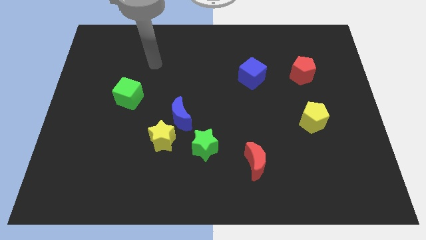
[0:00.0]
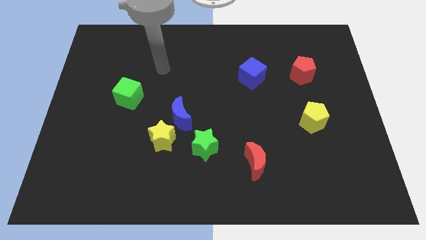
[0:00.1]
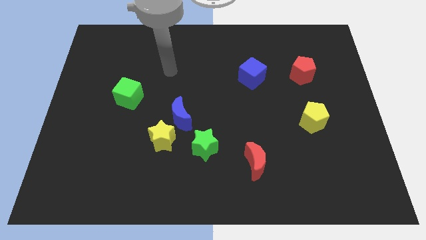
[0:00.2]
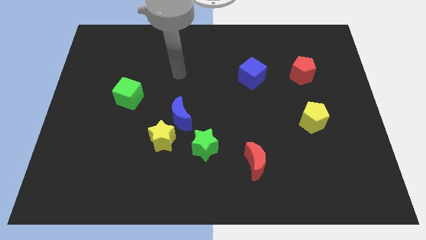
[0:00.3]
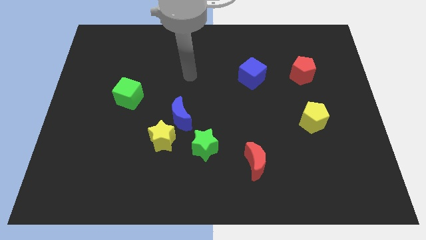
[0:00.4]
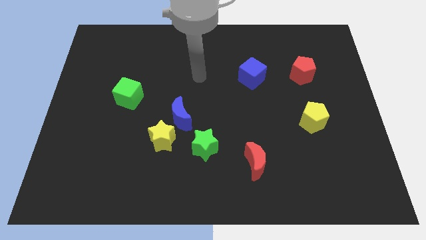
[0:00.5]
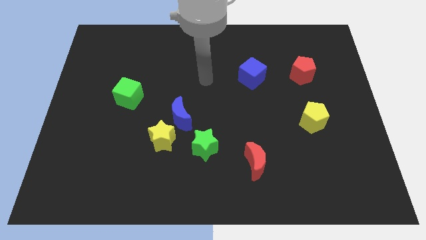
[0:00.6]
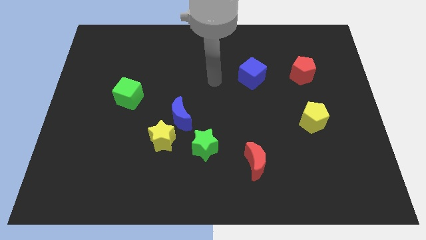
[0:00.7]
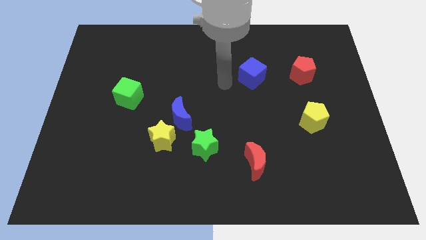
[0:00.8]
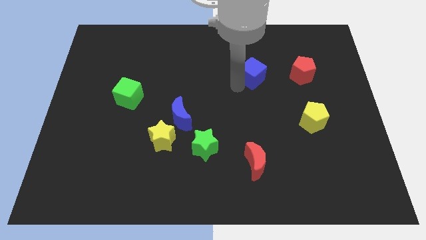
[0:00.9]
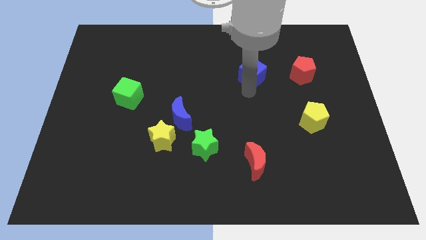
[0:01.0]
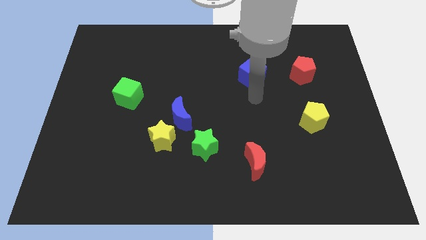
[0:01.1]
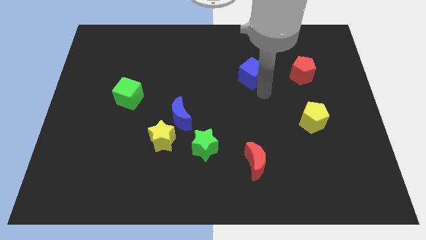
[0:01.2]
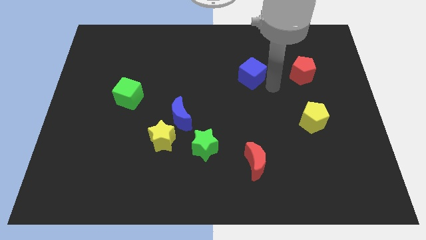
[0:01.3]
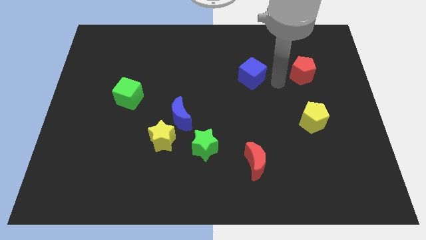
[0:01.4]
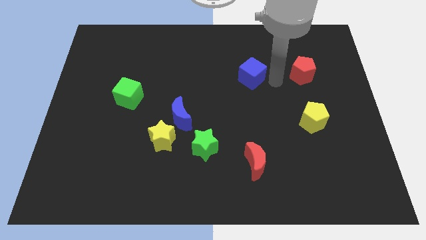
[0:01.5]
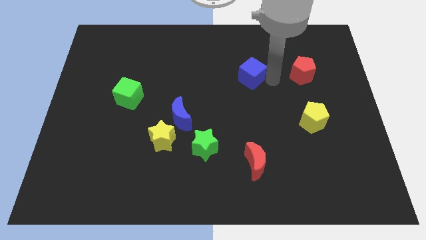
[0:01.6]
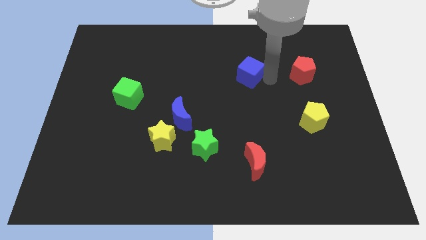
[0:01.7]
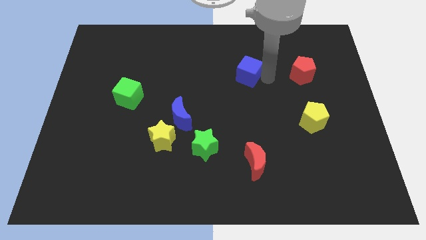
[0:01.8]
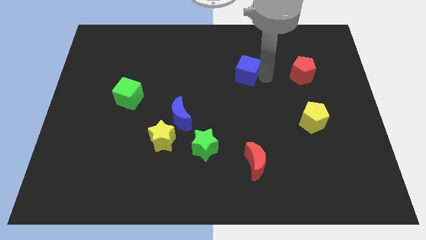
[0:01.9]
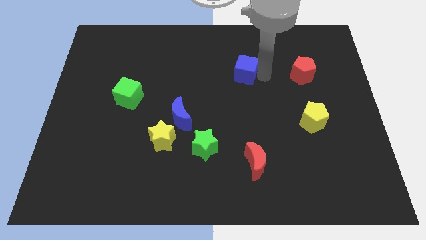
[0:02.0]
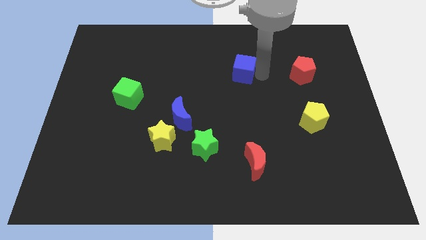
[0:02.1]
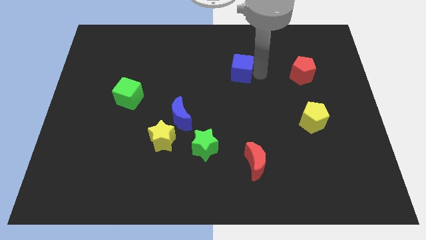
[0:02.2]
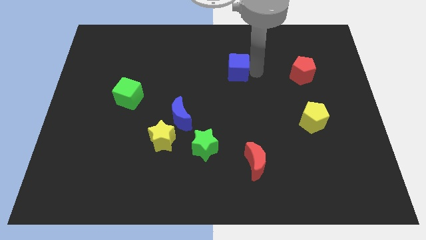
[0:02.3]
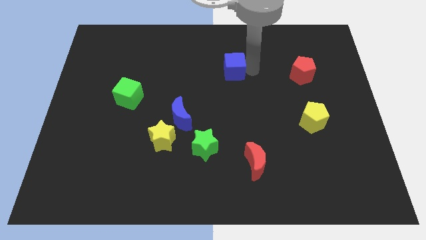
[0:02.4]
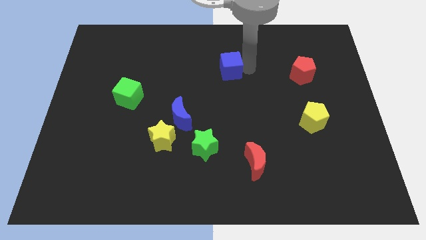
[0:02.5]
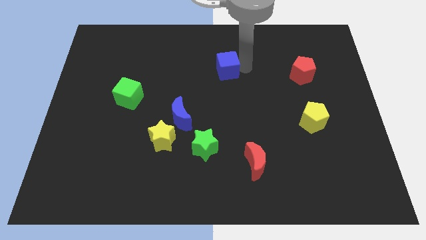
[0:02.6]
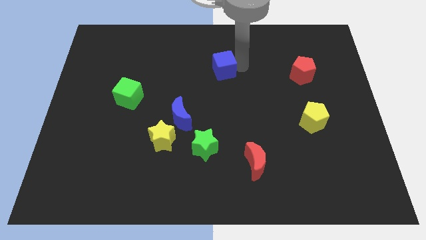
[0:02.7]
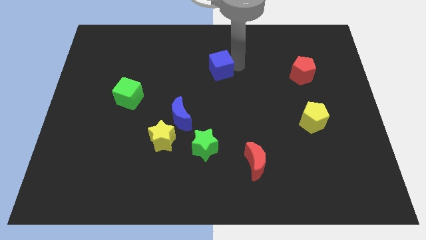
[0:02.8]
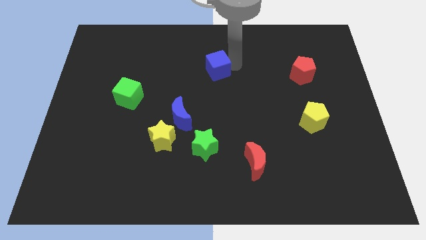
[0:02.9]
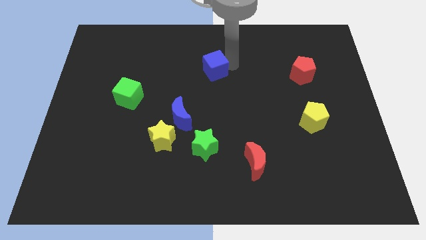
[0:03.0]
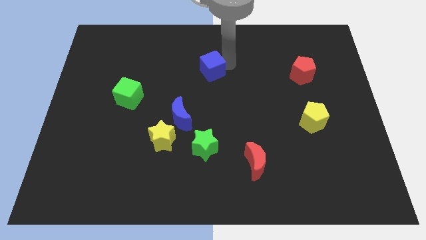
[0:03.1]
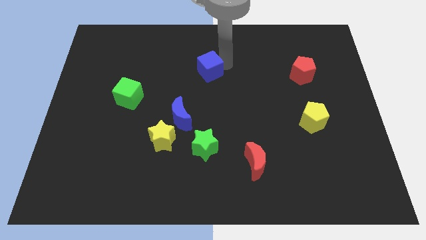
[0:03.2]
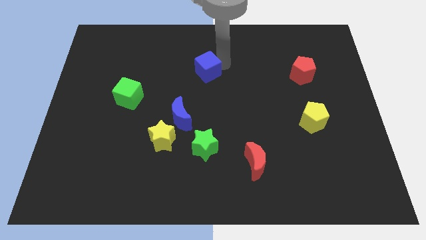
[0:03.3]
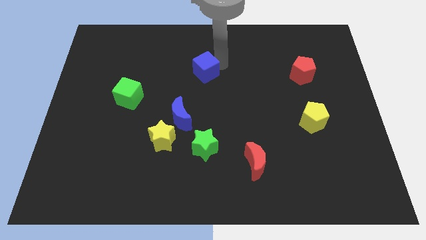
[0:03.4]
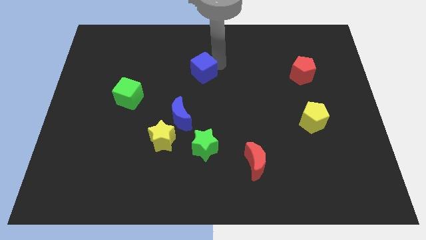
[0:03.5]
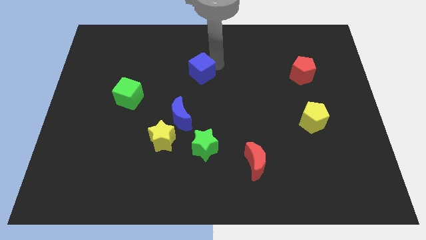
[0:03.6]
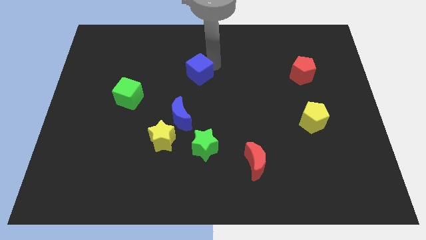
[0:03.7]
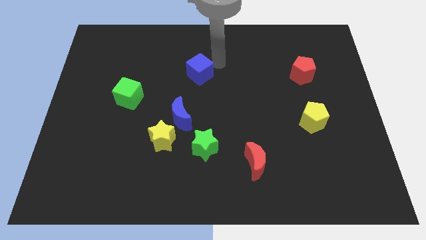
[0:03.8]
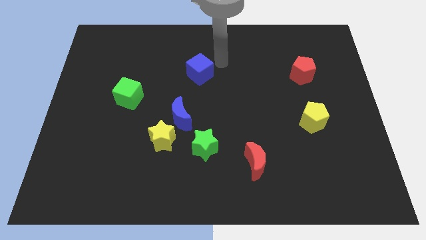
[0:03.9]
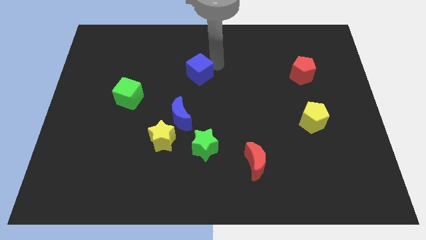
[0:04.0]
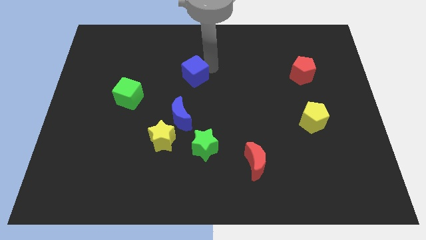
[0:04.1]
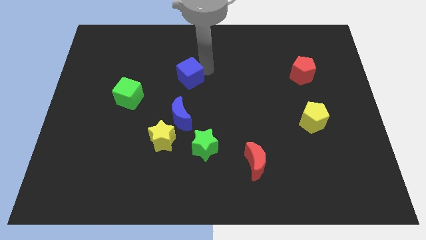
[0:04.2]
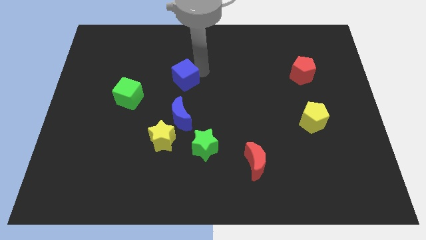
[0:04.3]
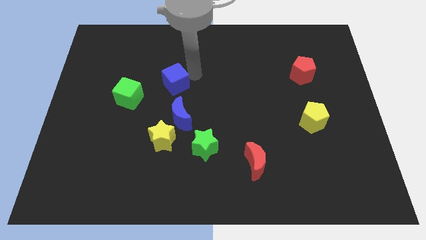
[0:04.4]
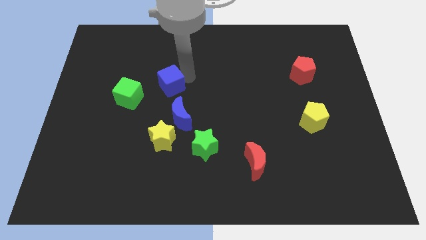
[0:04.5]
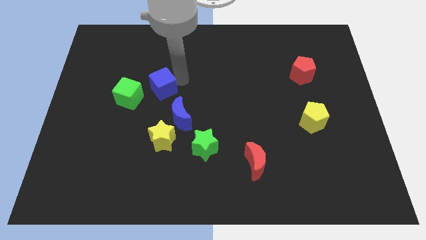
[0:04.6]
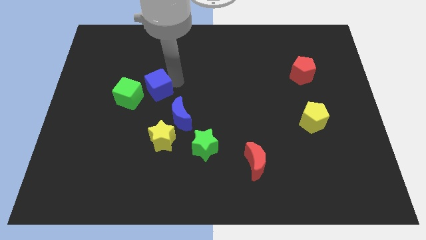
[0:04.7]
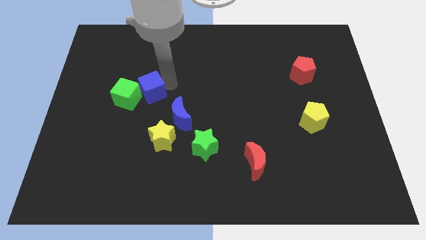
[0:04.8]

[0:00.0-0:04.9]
slide the blue cube towards the green cube

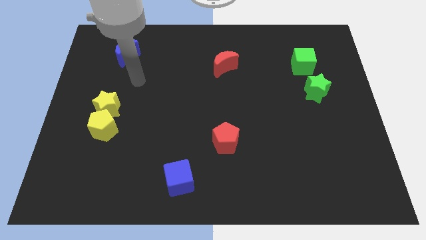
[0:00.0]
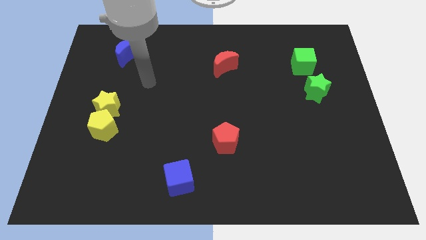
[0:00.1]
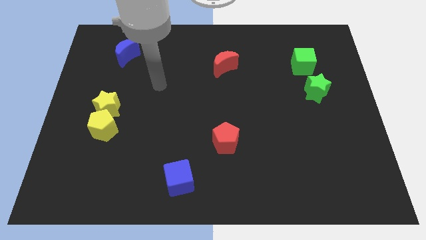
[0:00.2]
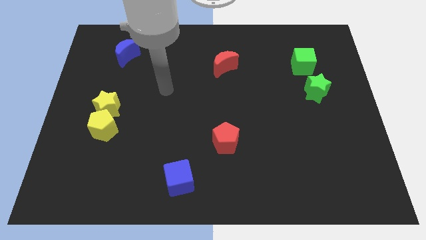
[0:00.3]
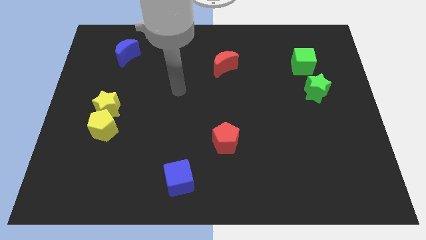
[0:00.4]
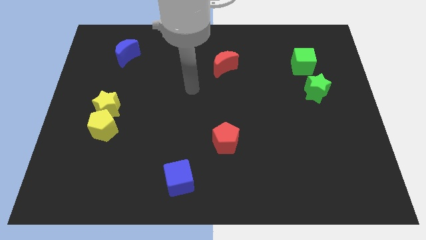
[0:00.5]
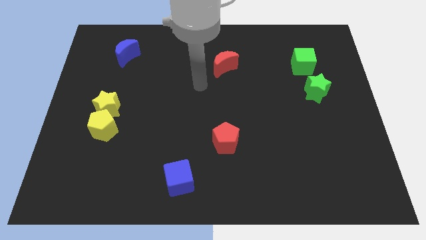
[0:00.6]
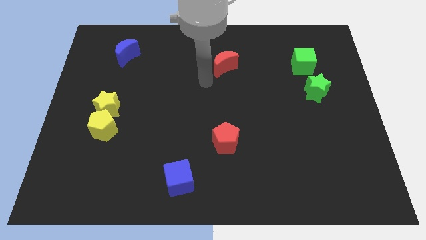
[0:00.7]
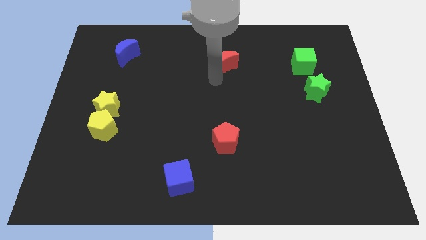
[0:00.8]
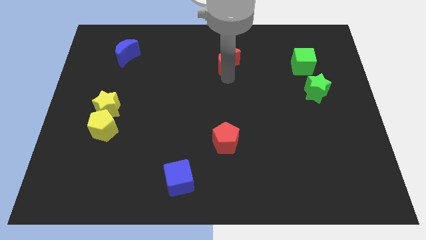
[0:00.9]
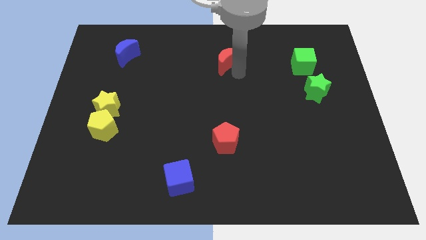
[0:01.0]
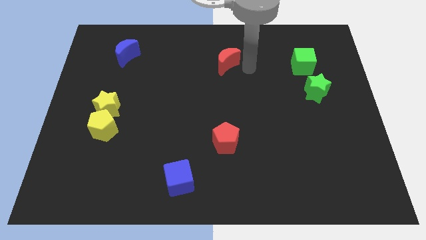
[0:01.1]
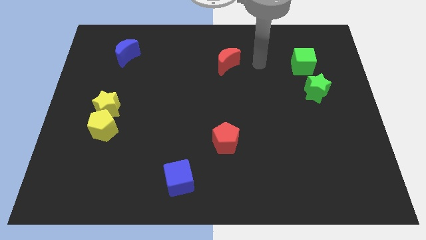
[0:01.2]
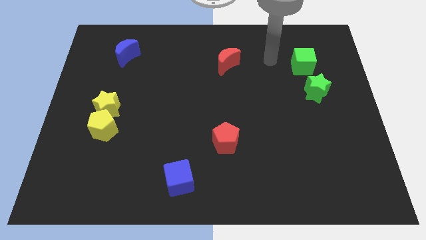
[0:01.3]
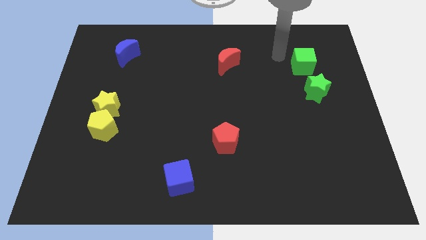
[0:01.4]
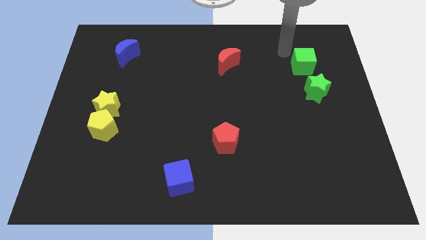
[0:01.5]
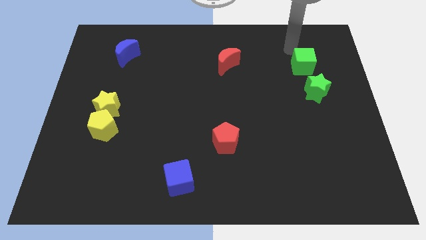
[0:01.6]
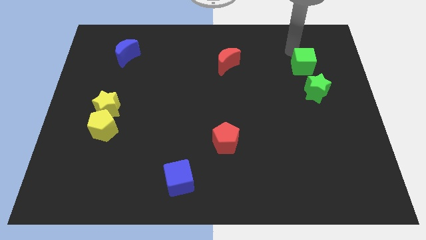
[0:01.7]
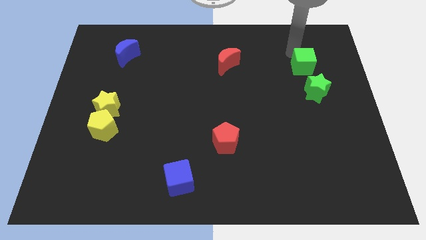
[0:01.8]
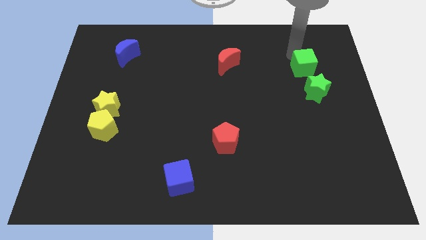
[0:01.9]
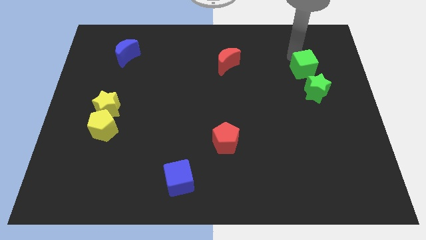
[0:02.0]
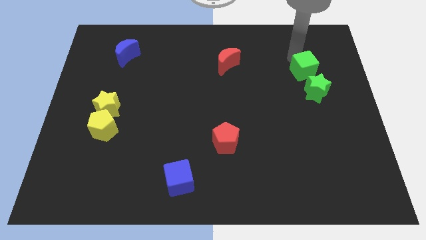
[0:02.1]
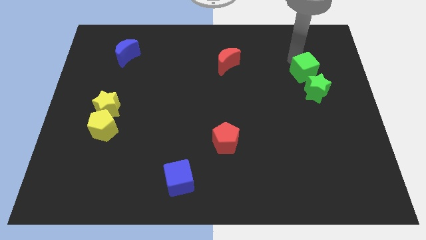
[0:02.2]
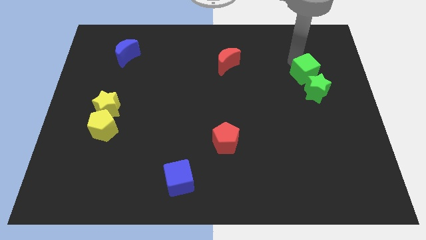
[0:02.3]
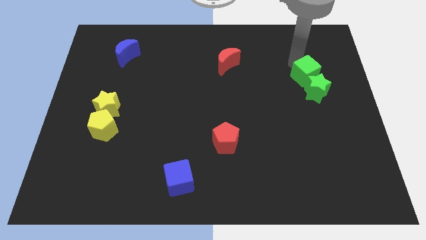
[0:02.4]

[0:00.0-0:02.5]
move the green cube close to the green star

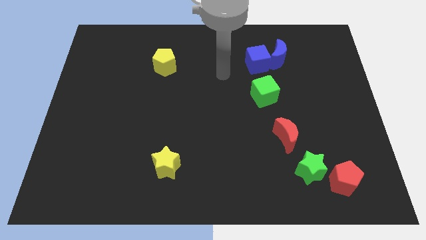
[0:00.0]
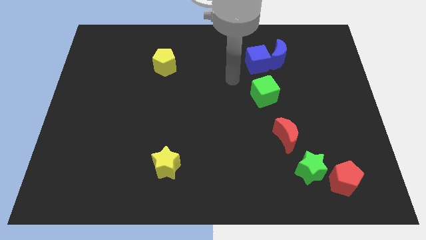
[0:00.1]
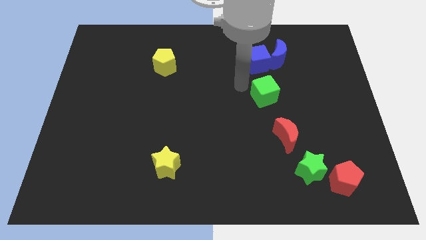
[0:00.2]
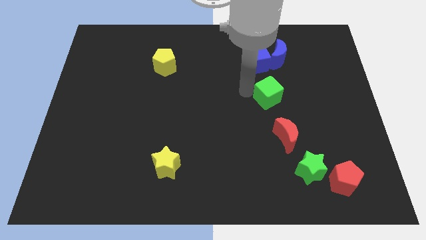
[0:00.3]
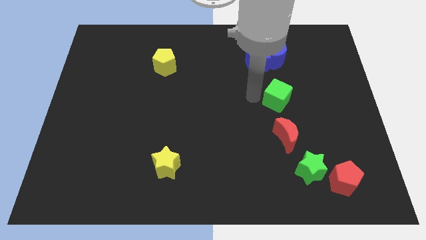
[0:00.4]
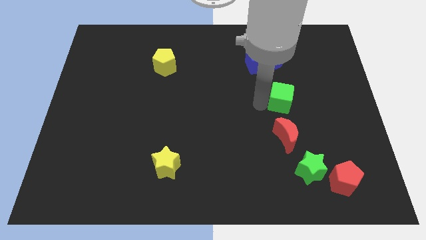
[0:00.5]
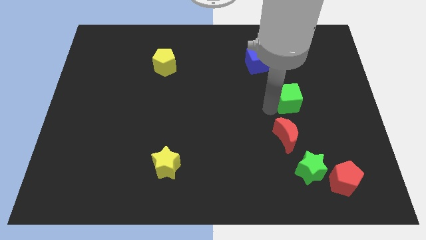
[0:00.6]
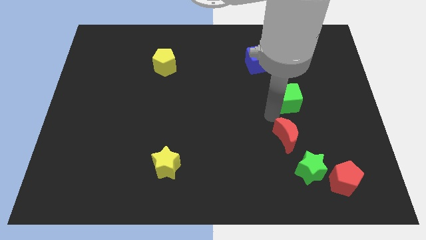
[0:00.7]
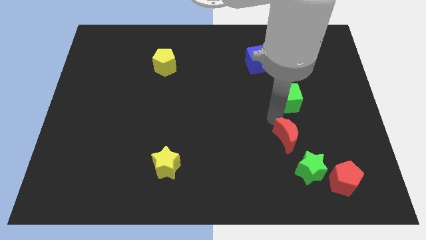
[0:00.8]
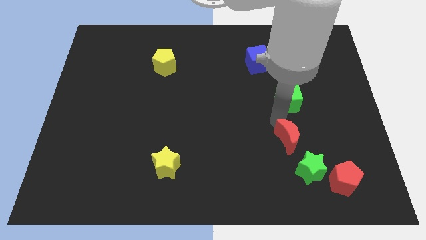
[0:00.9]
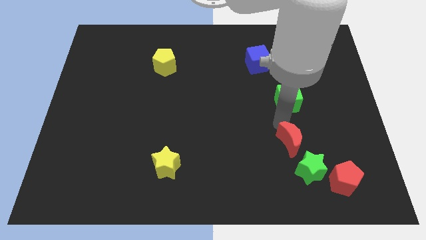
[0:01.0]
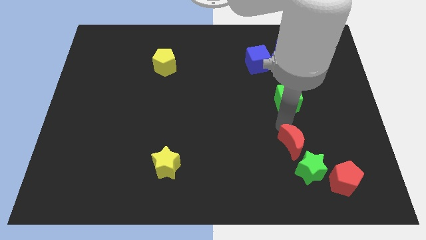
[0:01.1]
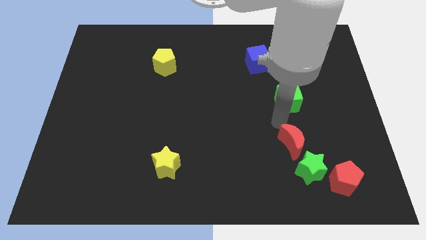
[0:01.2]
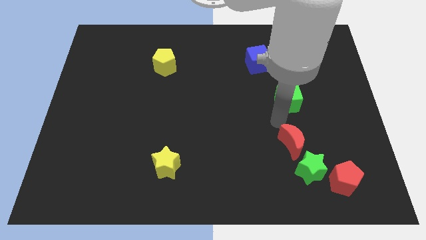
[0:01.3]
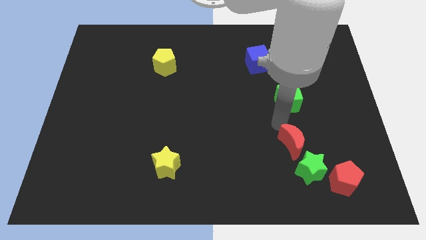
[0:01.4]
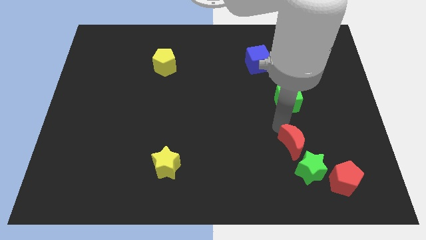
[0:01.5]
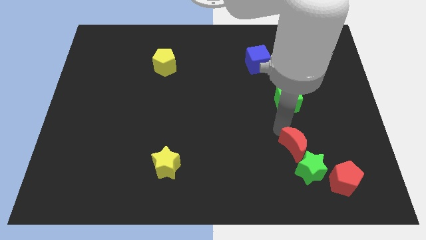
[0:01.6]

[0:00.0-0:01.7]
put the red moon towards the green star
